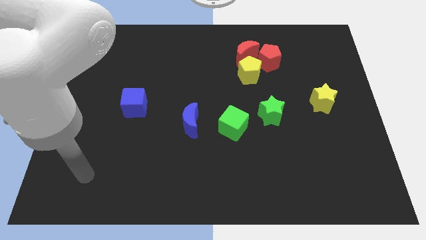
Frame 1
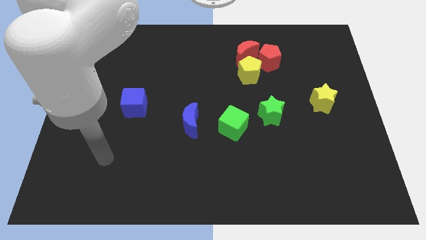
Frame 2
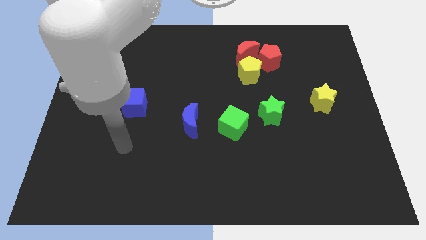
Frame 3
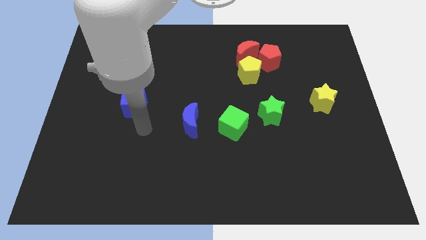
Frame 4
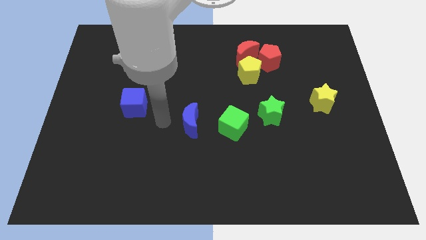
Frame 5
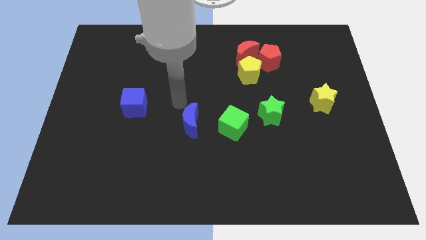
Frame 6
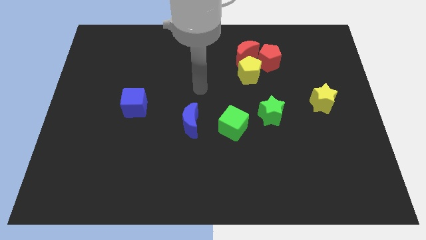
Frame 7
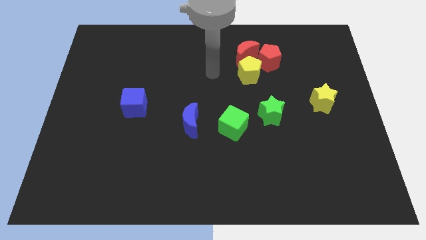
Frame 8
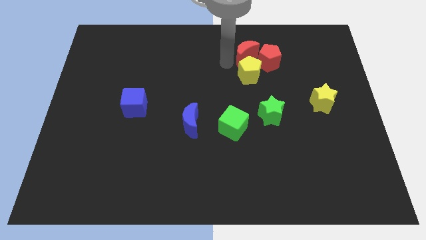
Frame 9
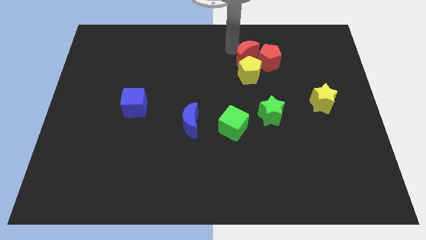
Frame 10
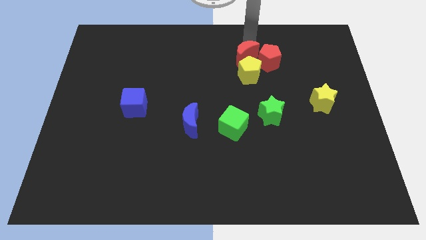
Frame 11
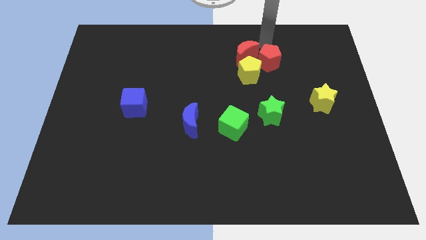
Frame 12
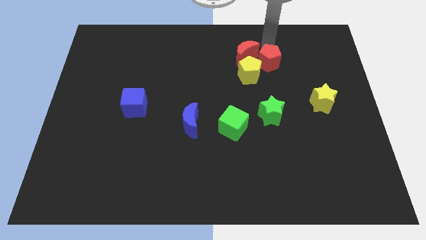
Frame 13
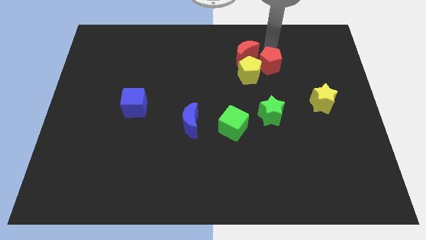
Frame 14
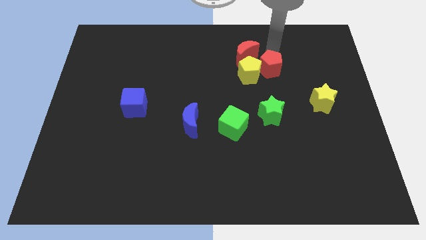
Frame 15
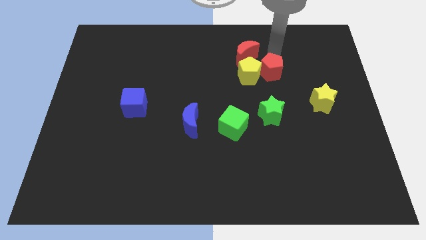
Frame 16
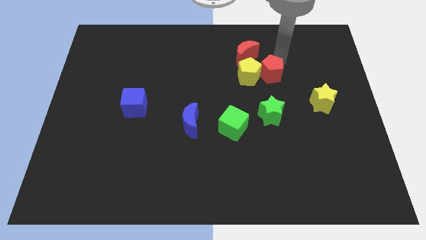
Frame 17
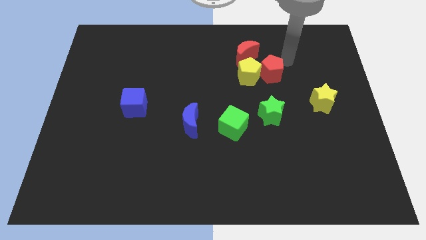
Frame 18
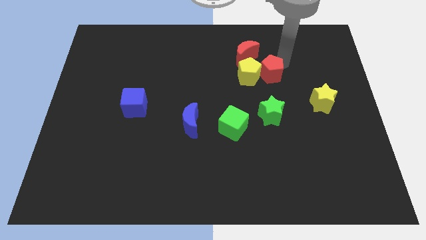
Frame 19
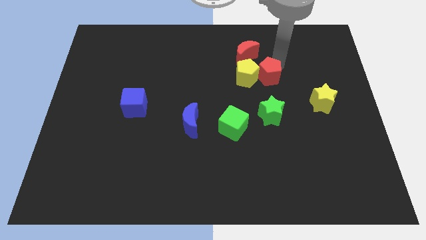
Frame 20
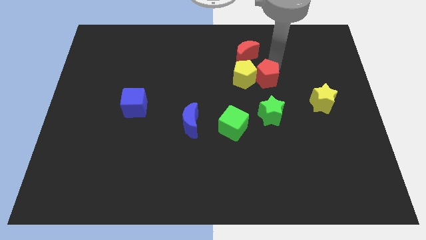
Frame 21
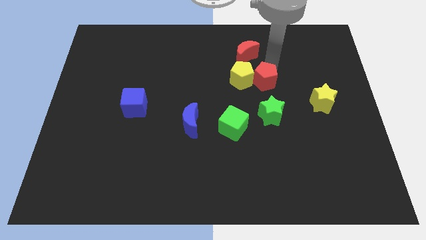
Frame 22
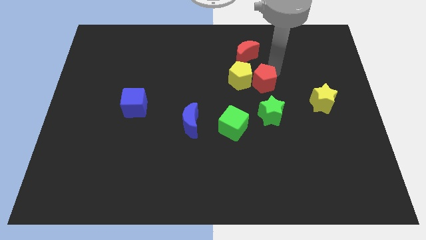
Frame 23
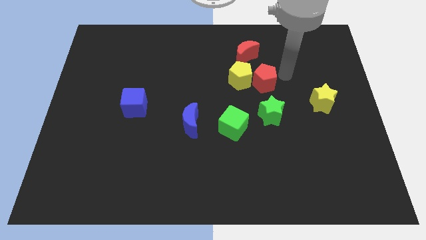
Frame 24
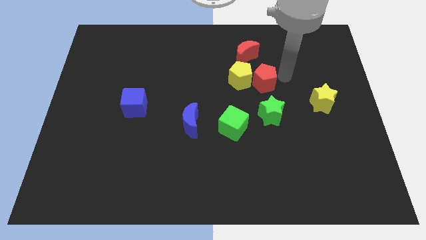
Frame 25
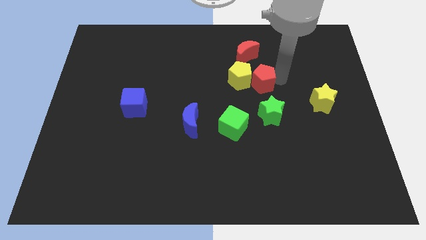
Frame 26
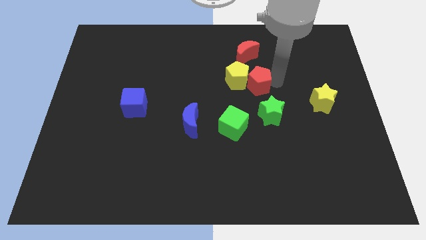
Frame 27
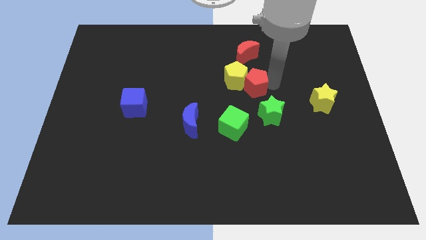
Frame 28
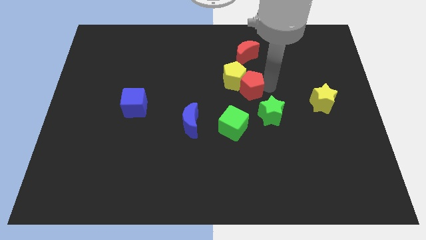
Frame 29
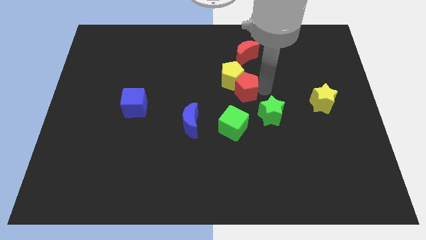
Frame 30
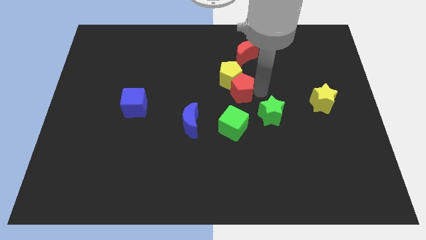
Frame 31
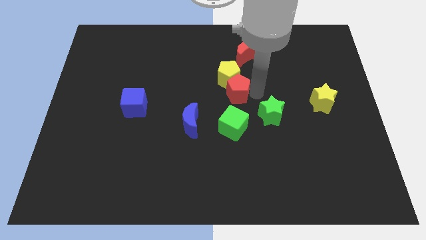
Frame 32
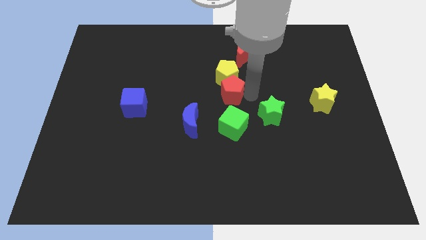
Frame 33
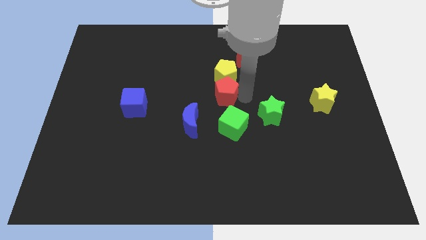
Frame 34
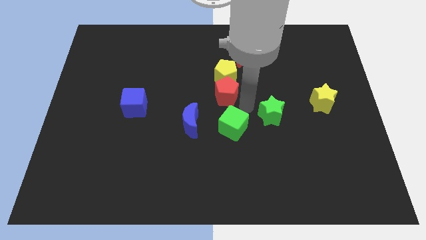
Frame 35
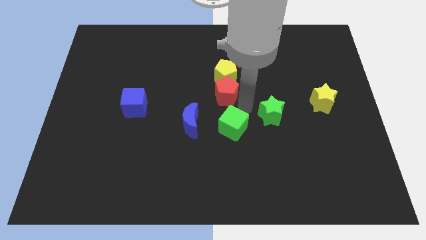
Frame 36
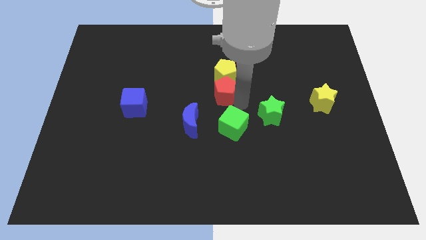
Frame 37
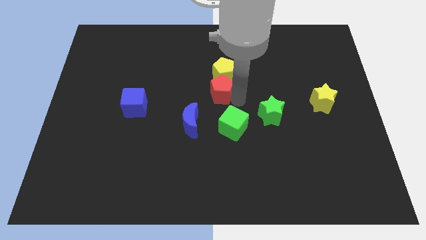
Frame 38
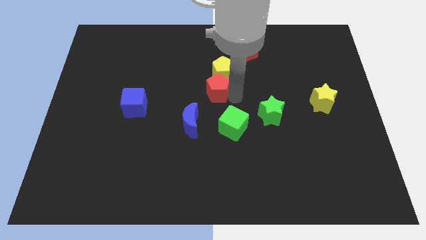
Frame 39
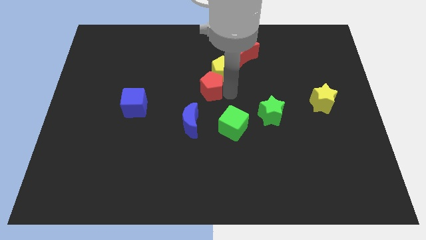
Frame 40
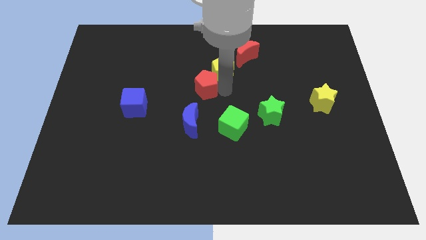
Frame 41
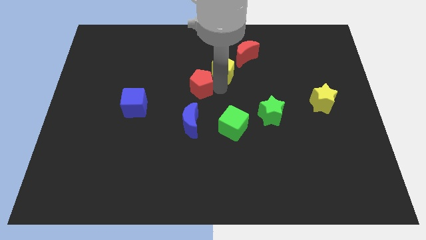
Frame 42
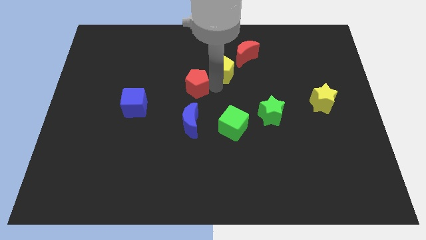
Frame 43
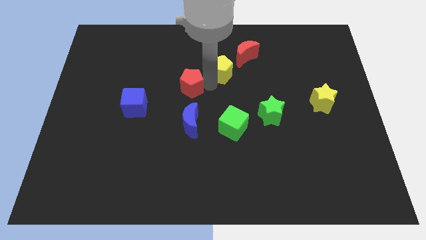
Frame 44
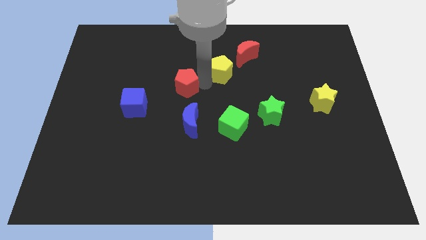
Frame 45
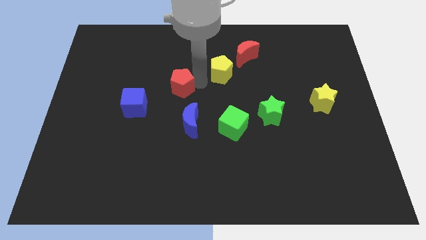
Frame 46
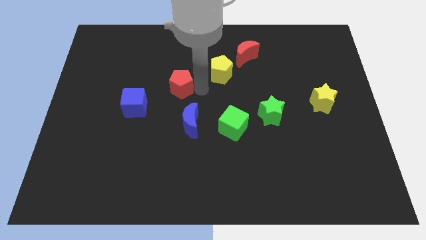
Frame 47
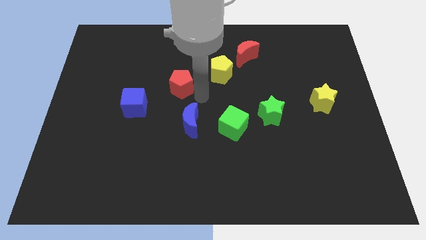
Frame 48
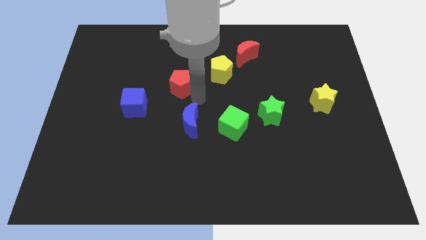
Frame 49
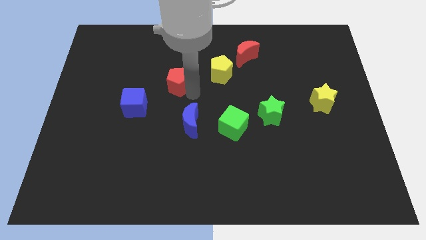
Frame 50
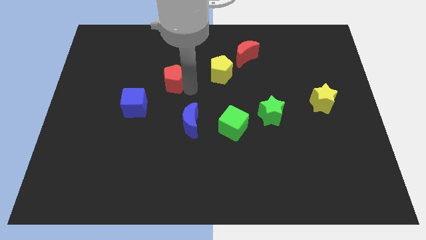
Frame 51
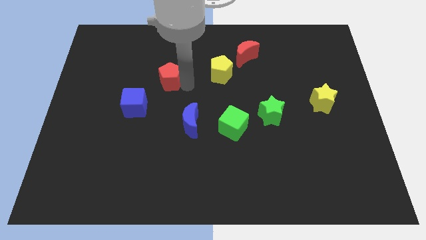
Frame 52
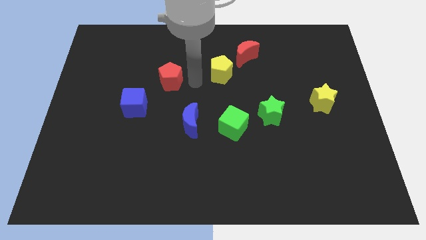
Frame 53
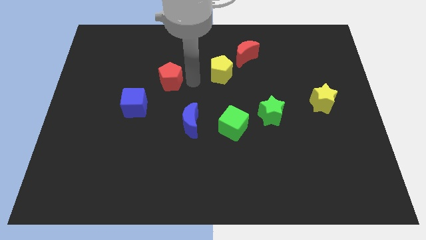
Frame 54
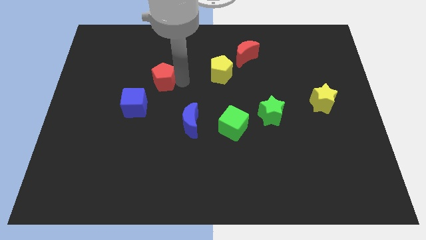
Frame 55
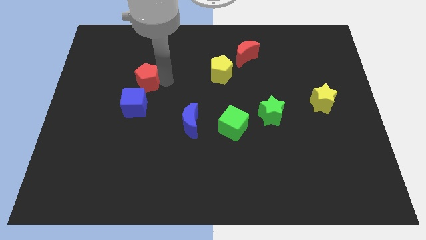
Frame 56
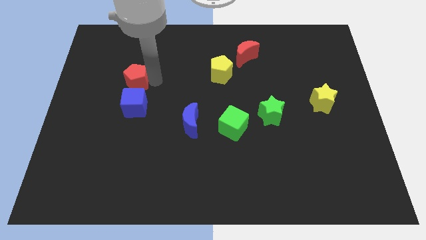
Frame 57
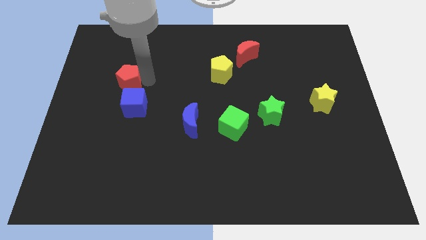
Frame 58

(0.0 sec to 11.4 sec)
move the red pentagon diagonally up and to the left of the blue cube

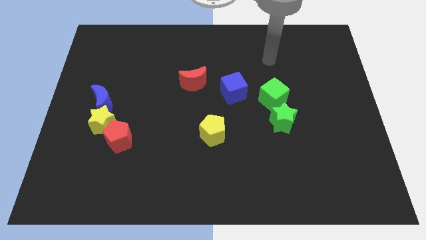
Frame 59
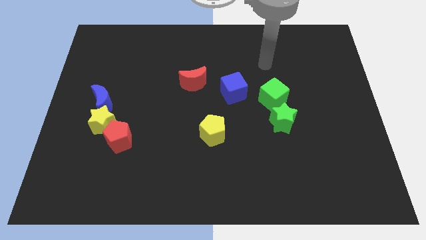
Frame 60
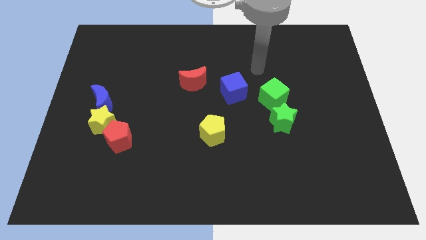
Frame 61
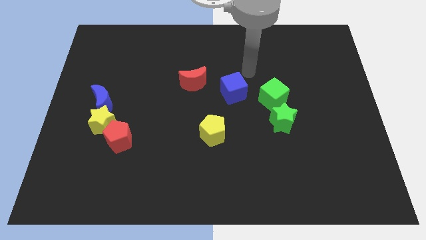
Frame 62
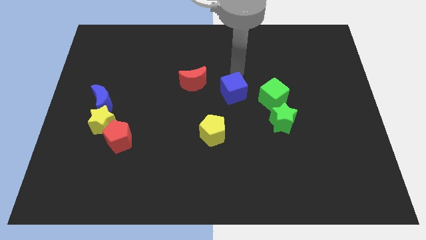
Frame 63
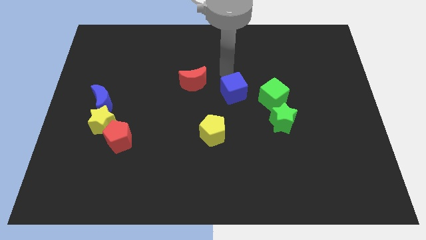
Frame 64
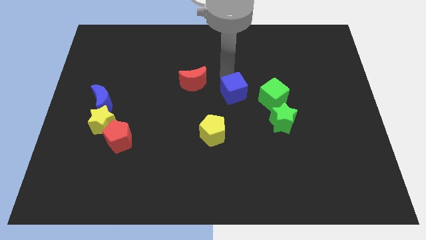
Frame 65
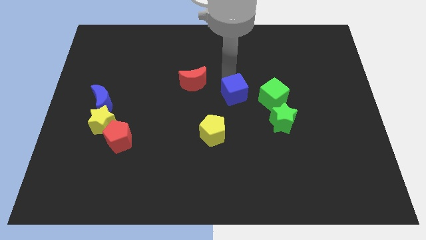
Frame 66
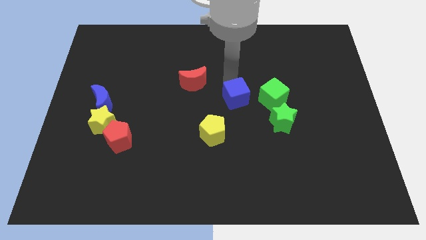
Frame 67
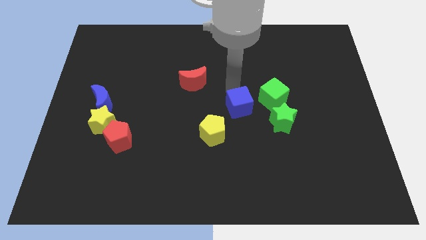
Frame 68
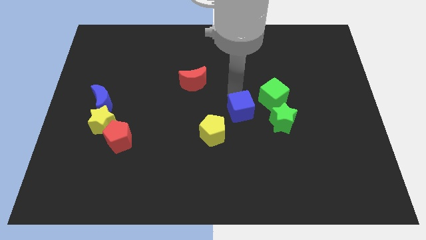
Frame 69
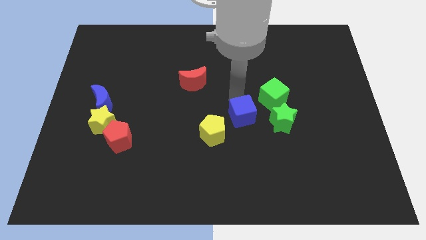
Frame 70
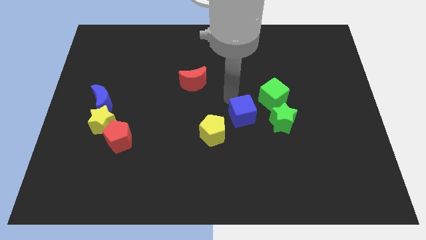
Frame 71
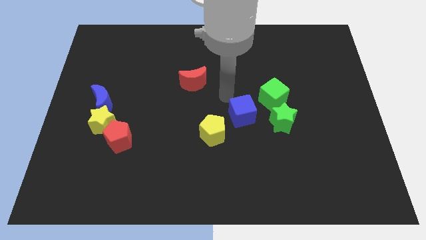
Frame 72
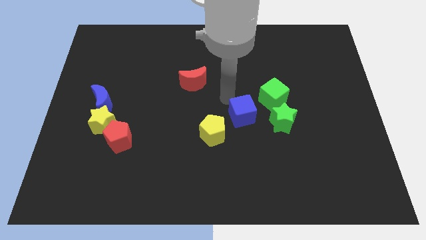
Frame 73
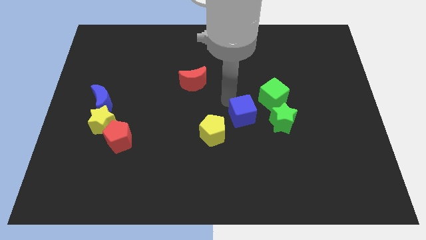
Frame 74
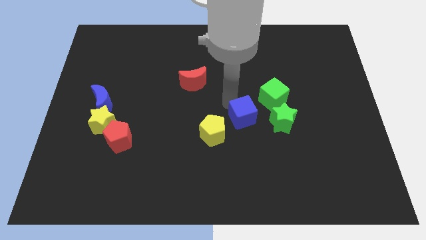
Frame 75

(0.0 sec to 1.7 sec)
slide the blue cube right of the yellow pentagon

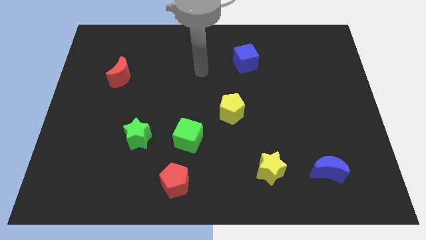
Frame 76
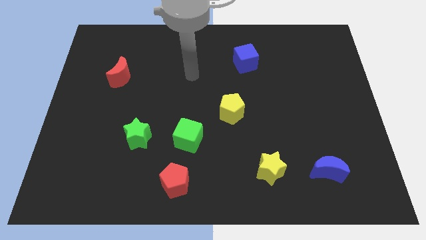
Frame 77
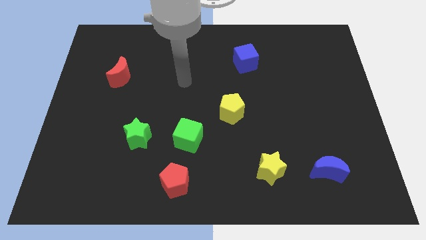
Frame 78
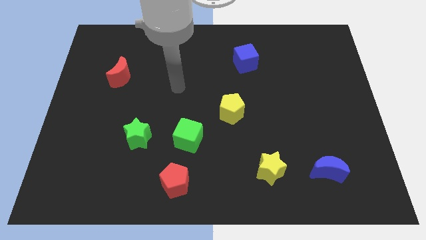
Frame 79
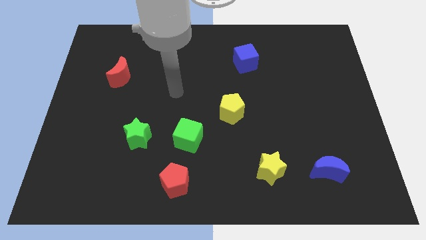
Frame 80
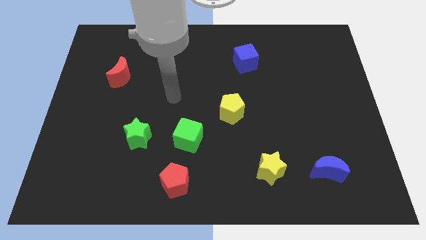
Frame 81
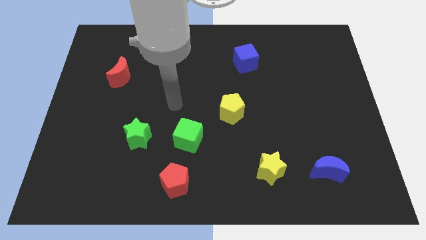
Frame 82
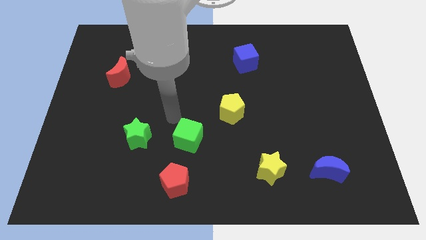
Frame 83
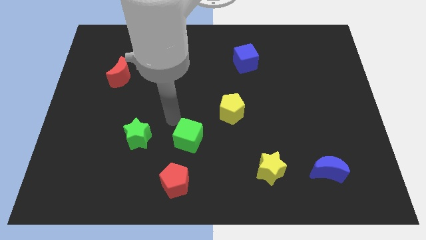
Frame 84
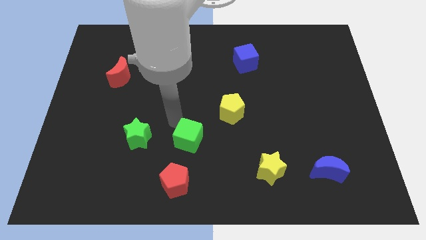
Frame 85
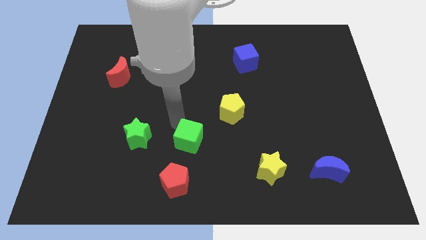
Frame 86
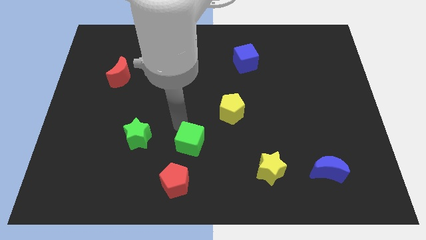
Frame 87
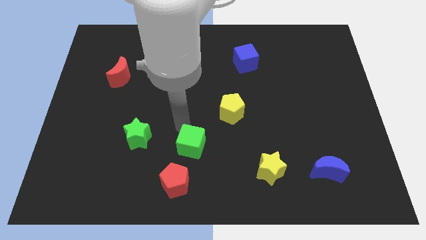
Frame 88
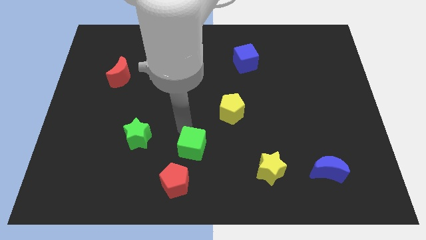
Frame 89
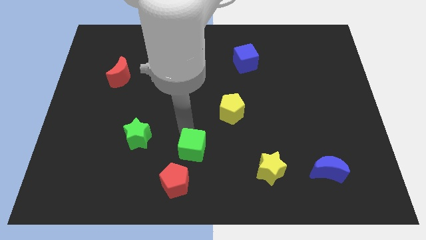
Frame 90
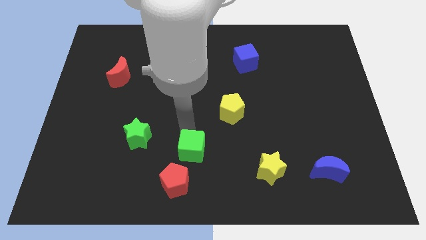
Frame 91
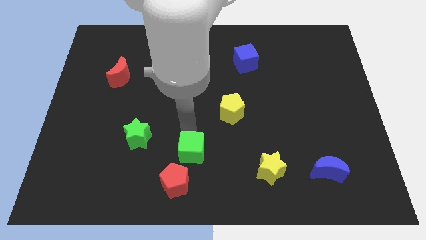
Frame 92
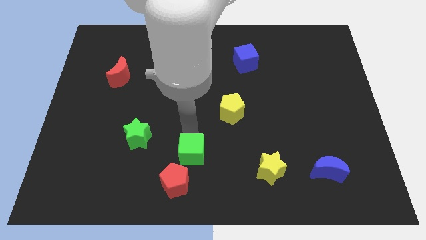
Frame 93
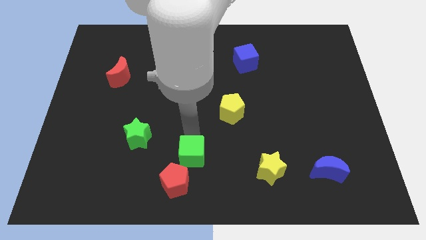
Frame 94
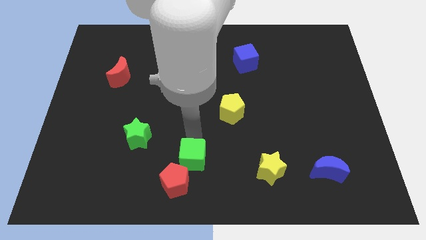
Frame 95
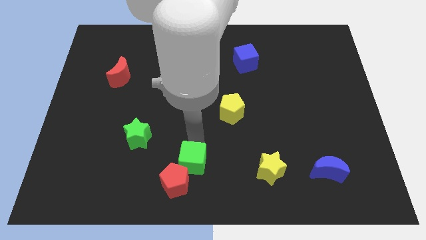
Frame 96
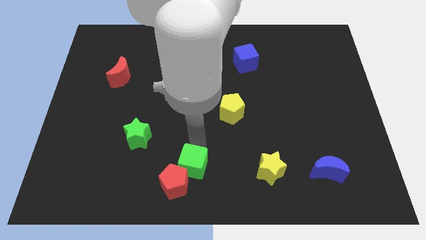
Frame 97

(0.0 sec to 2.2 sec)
move the green cube right of the red pentagon
